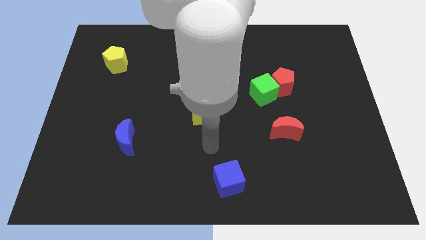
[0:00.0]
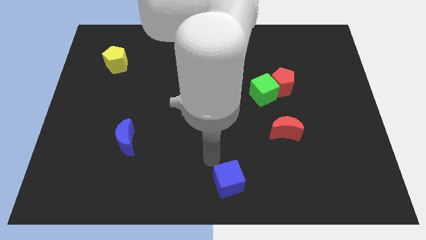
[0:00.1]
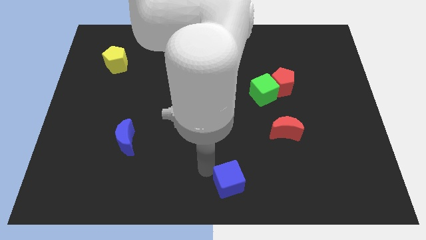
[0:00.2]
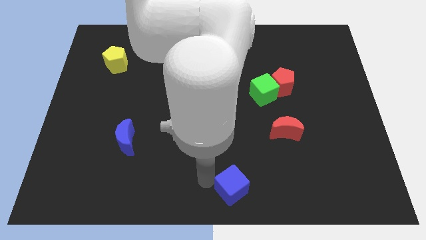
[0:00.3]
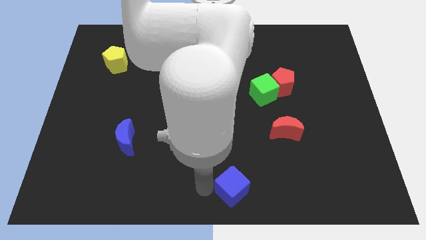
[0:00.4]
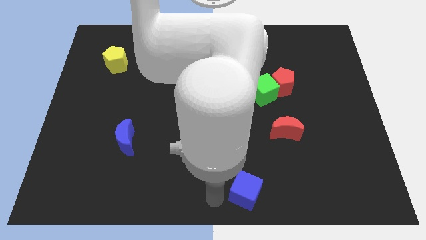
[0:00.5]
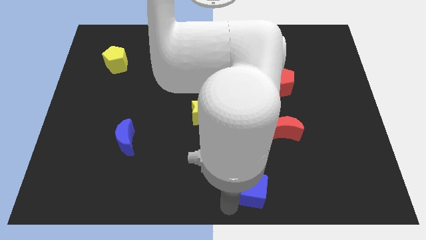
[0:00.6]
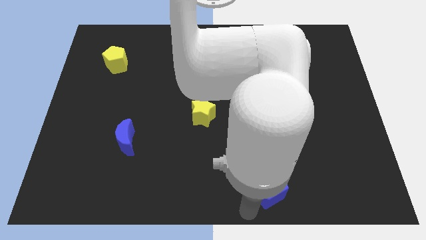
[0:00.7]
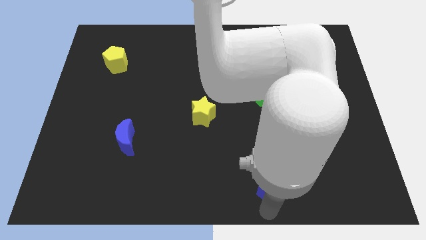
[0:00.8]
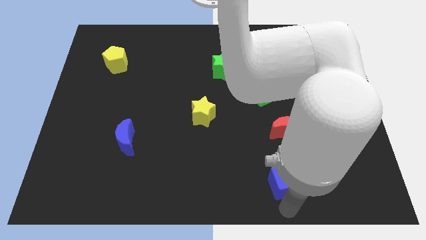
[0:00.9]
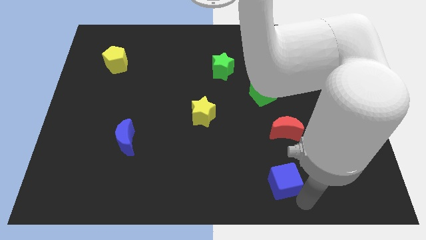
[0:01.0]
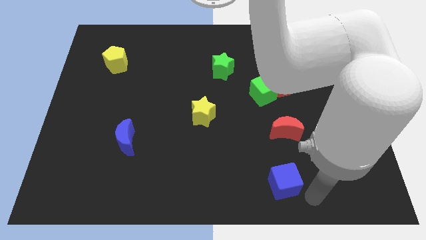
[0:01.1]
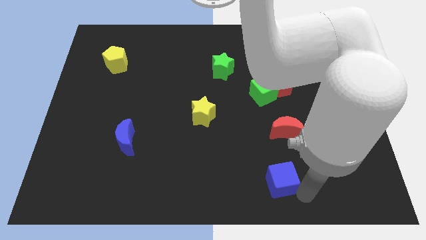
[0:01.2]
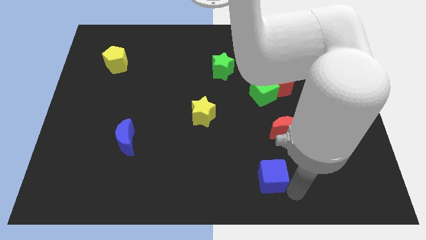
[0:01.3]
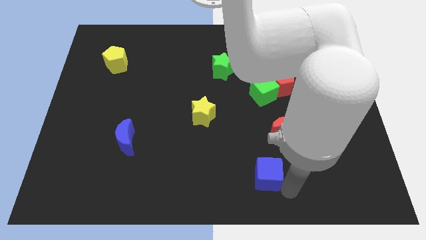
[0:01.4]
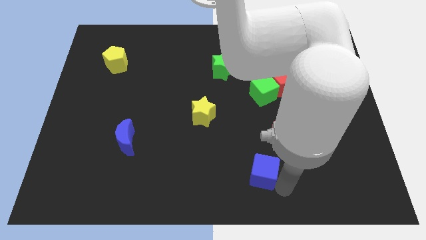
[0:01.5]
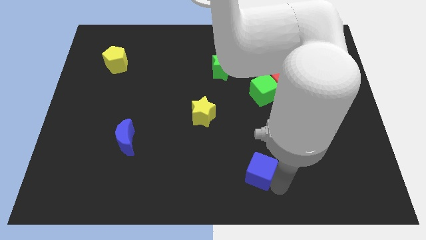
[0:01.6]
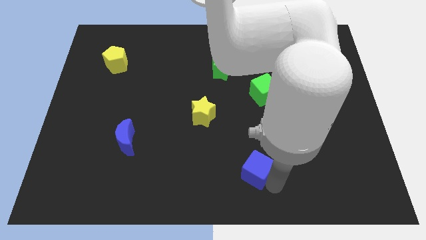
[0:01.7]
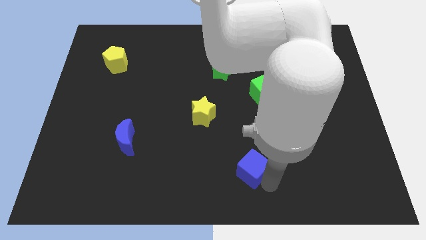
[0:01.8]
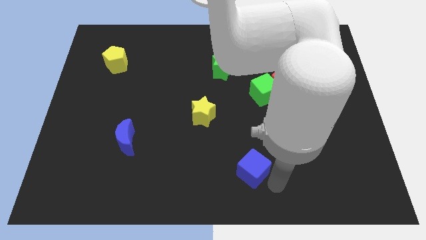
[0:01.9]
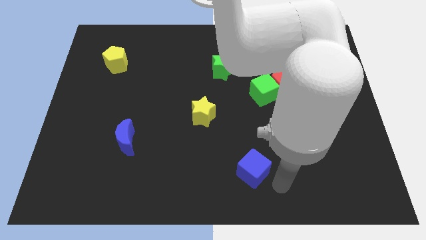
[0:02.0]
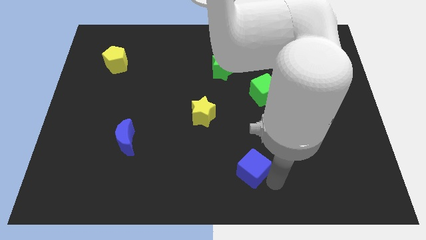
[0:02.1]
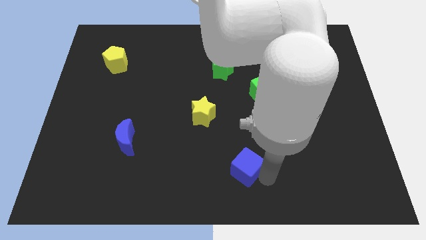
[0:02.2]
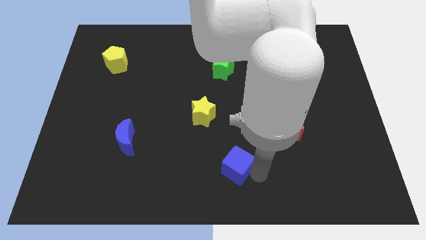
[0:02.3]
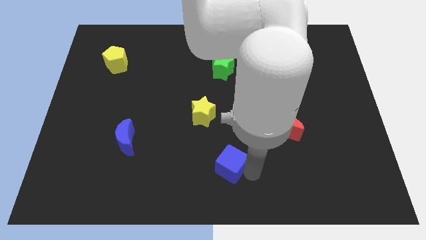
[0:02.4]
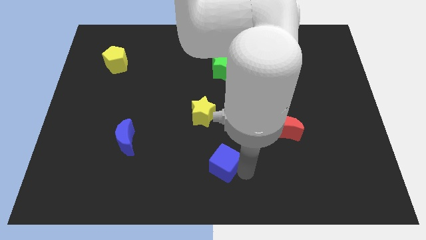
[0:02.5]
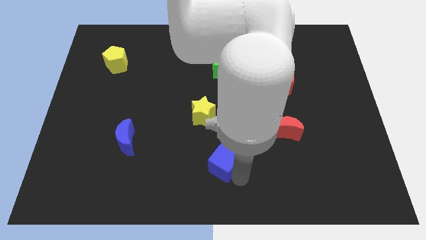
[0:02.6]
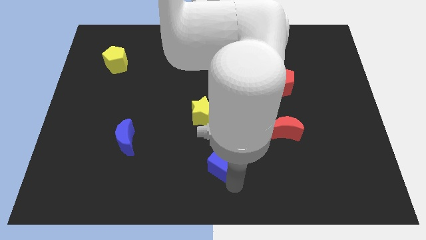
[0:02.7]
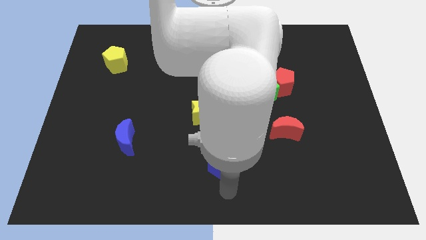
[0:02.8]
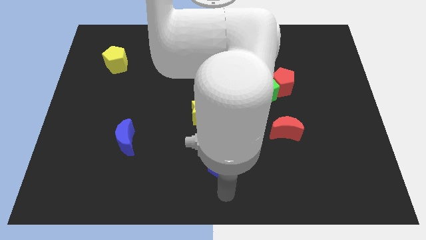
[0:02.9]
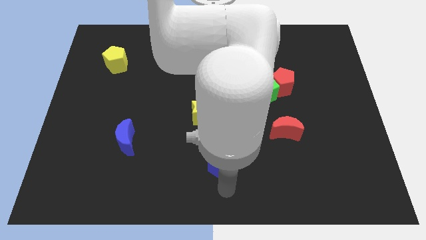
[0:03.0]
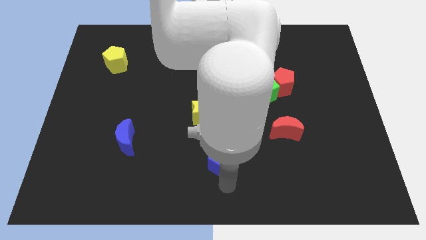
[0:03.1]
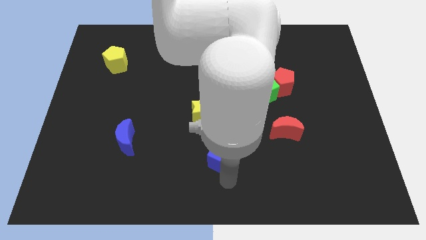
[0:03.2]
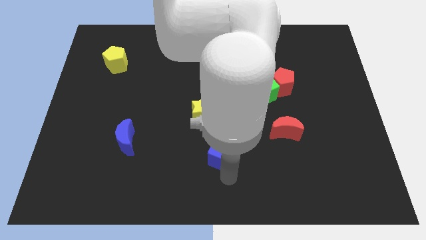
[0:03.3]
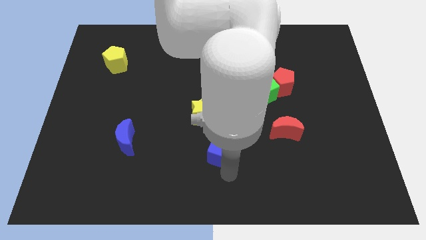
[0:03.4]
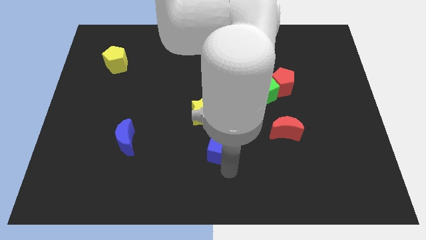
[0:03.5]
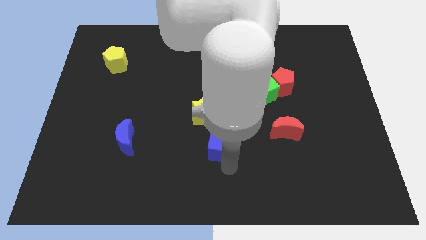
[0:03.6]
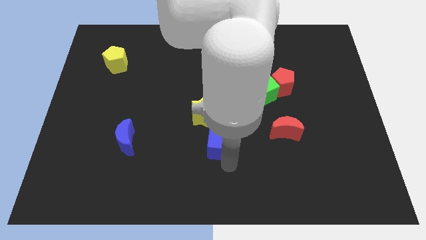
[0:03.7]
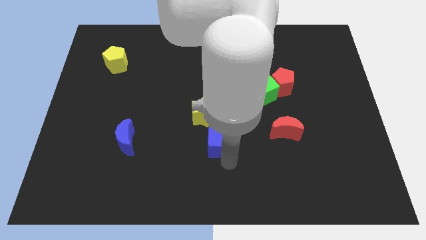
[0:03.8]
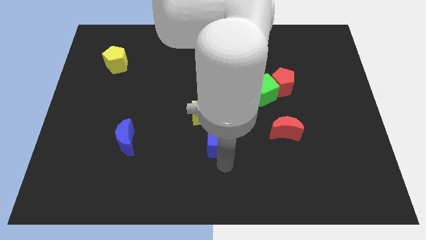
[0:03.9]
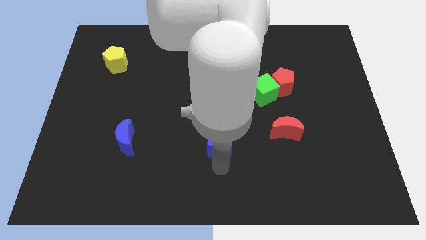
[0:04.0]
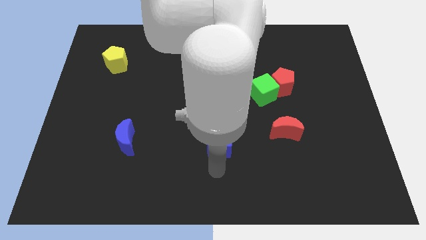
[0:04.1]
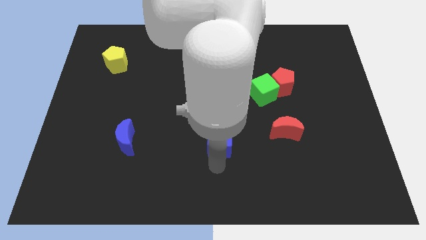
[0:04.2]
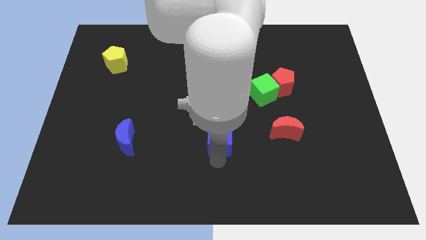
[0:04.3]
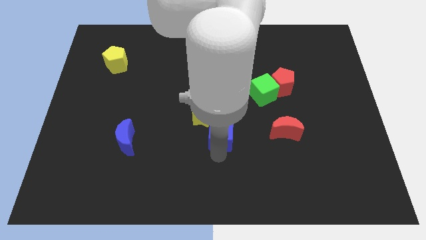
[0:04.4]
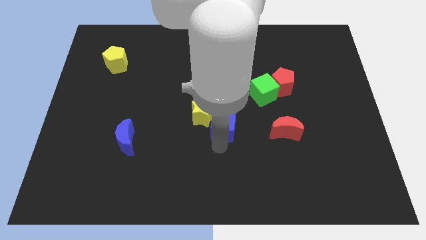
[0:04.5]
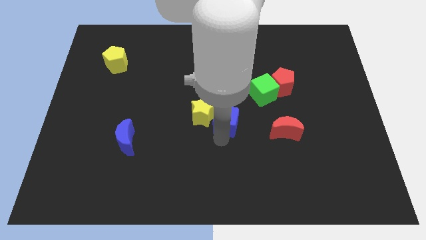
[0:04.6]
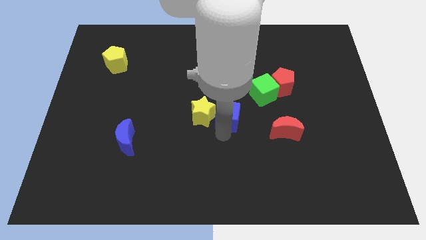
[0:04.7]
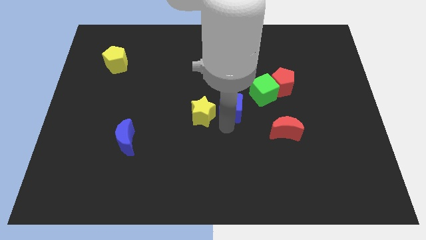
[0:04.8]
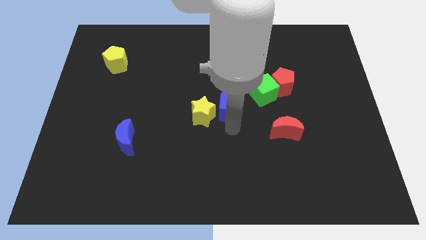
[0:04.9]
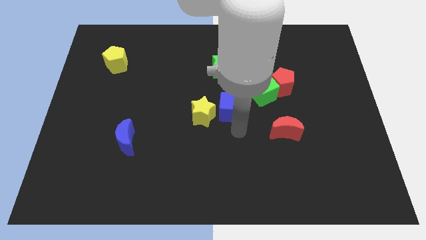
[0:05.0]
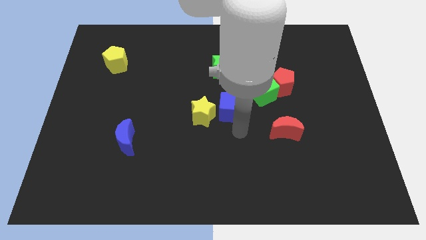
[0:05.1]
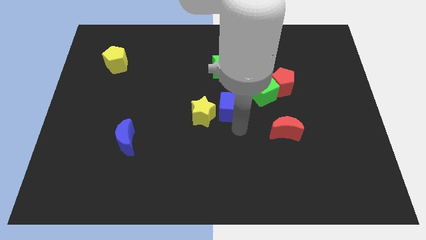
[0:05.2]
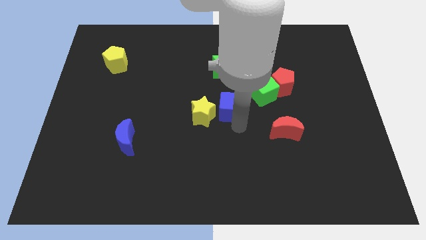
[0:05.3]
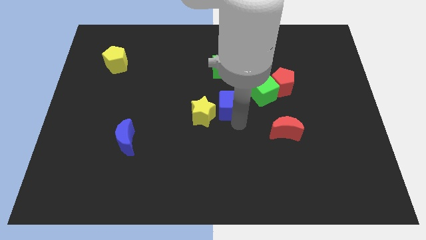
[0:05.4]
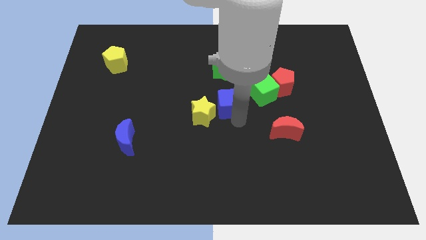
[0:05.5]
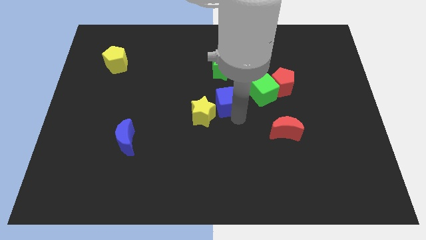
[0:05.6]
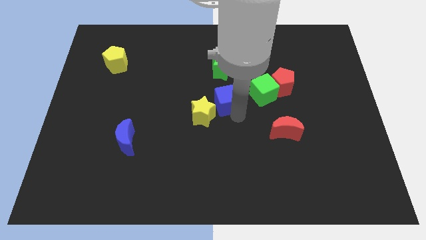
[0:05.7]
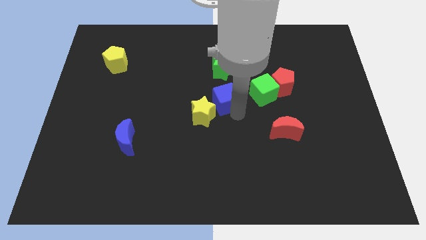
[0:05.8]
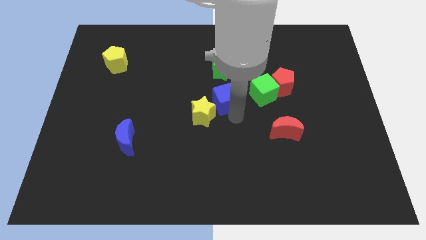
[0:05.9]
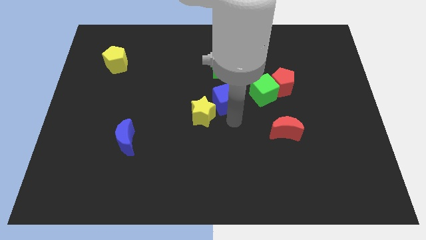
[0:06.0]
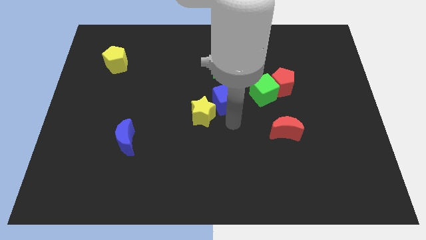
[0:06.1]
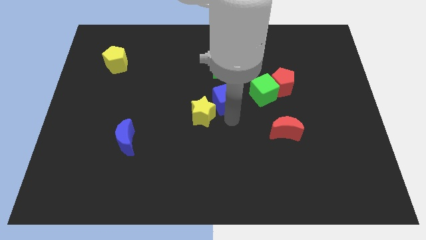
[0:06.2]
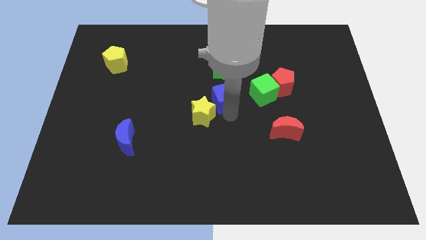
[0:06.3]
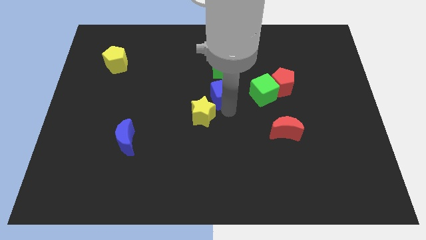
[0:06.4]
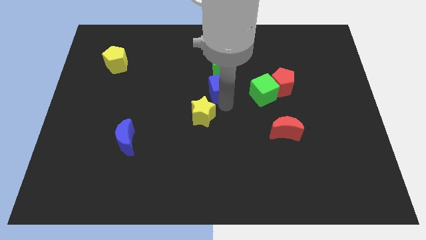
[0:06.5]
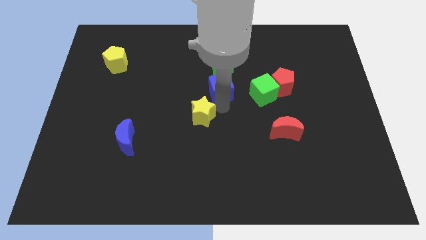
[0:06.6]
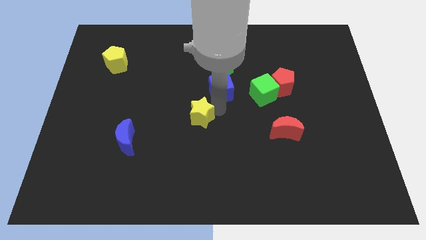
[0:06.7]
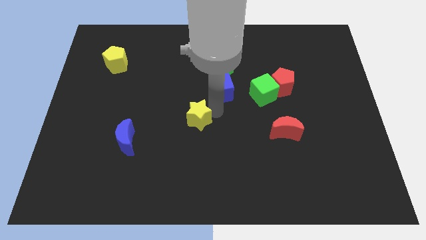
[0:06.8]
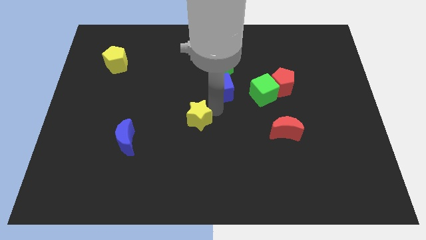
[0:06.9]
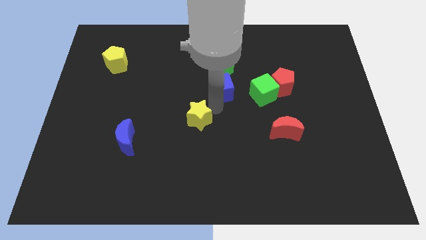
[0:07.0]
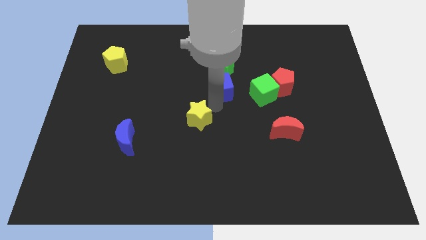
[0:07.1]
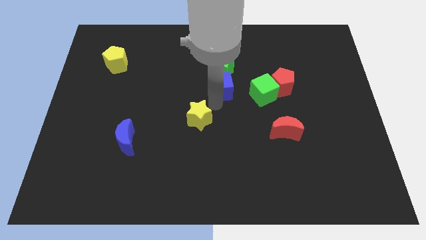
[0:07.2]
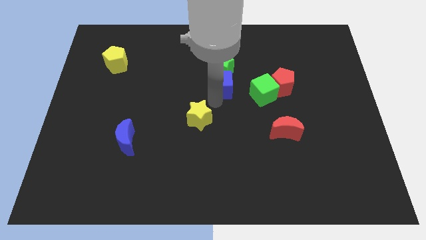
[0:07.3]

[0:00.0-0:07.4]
slide the blue cube close to the green star
